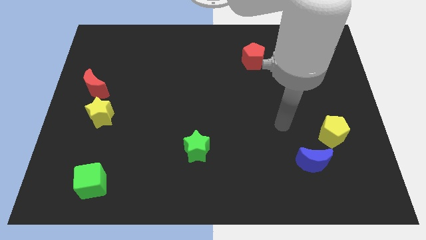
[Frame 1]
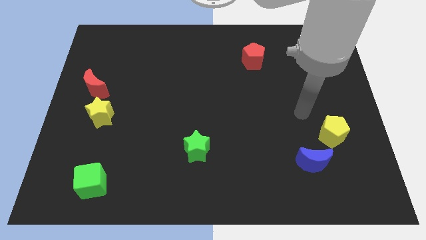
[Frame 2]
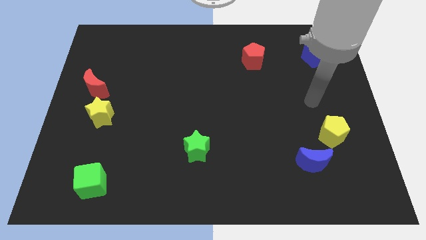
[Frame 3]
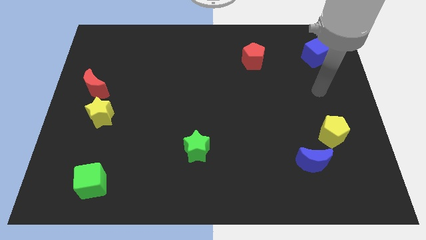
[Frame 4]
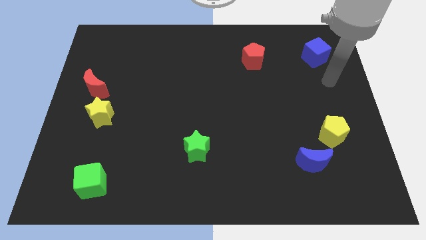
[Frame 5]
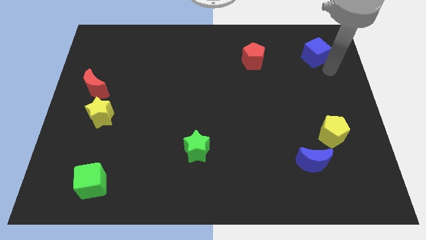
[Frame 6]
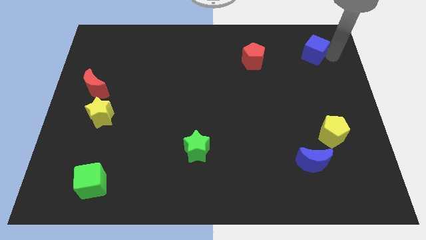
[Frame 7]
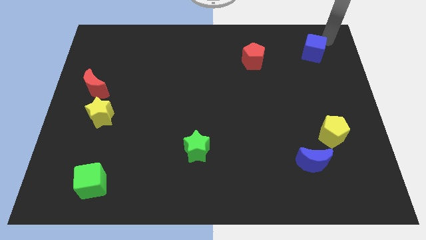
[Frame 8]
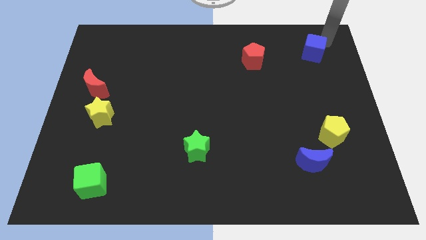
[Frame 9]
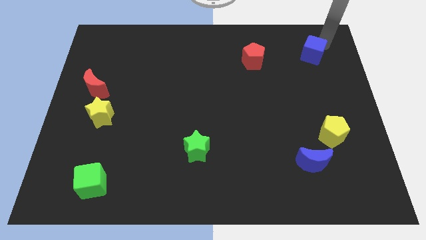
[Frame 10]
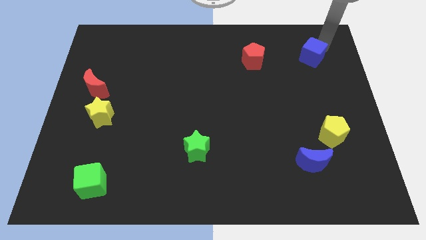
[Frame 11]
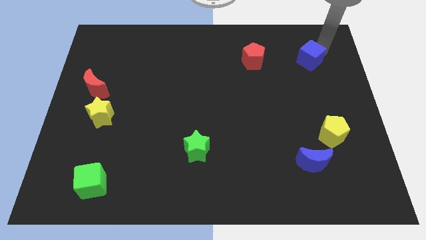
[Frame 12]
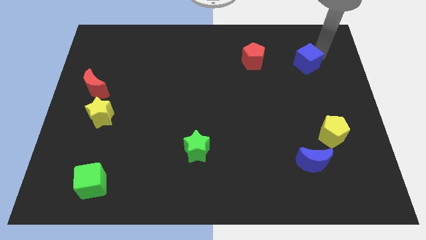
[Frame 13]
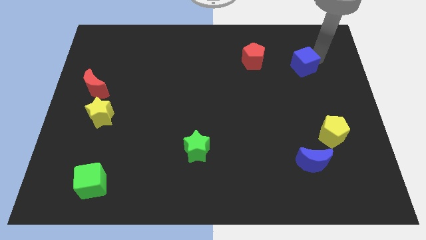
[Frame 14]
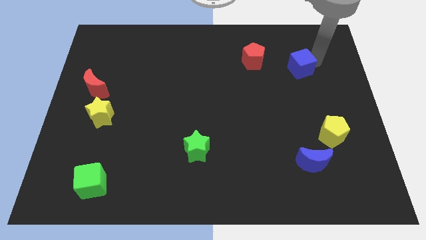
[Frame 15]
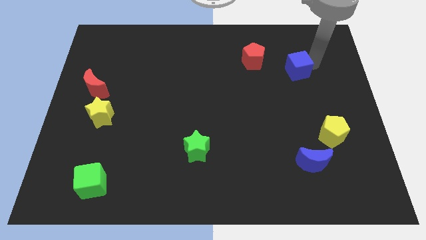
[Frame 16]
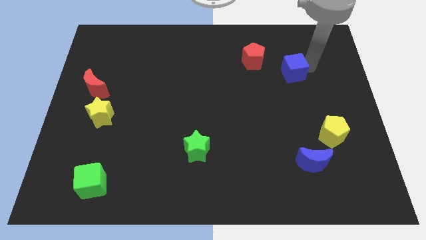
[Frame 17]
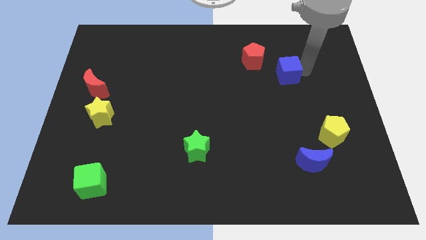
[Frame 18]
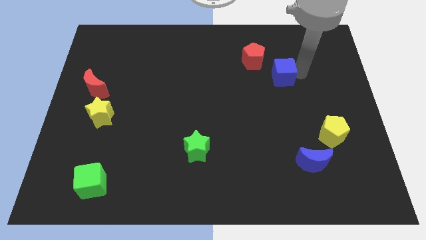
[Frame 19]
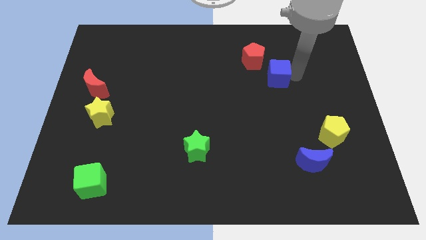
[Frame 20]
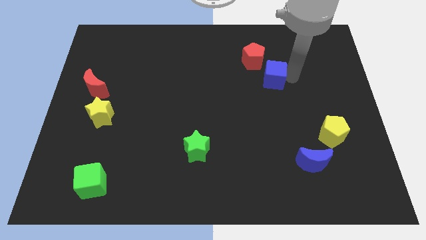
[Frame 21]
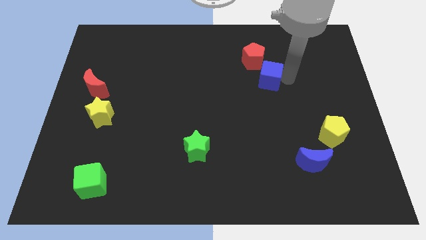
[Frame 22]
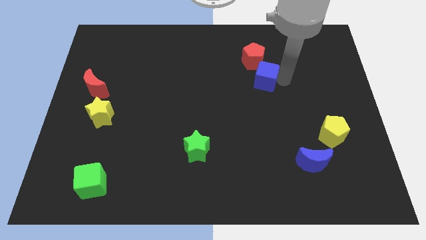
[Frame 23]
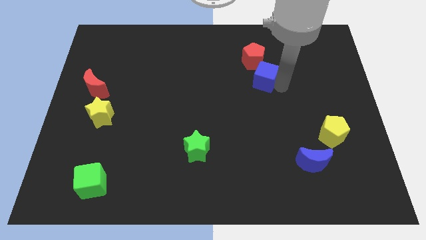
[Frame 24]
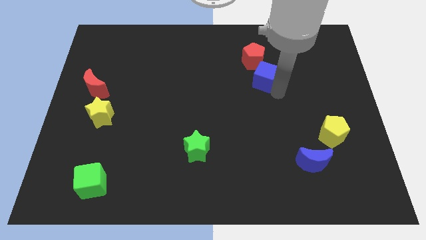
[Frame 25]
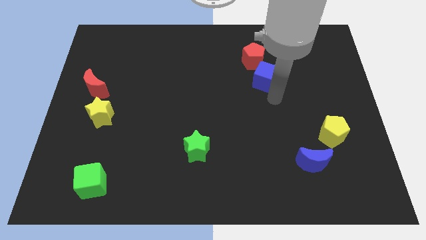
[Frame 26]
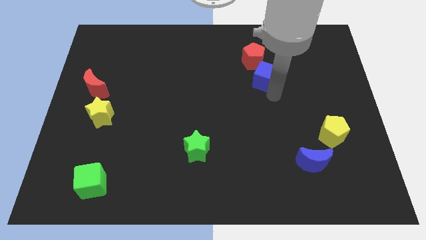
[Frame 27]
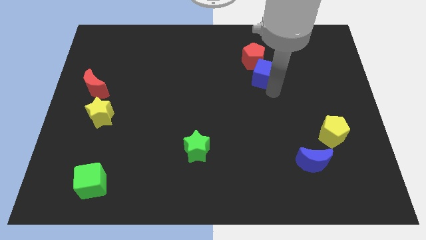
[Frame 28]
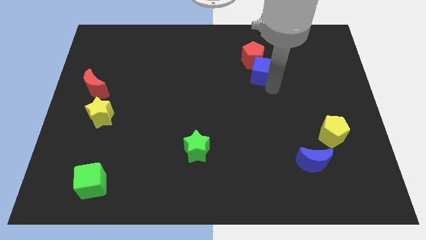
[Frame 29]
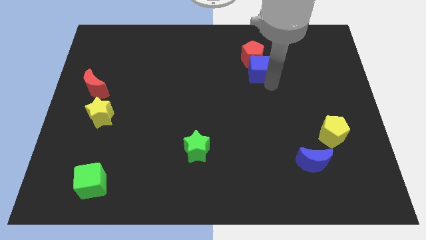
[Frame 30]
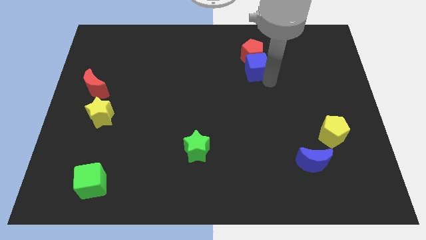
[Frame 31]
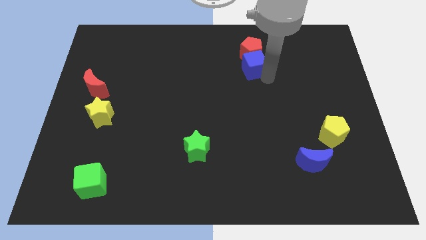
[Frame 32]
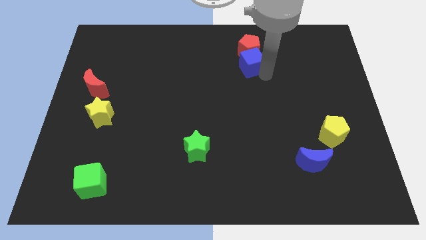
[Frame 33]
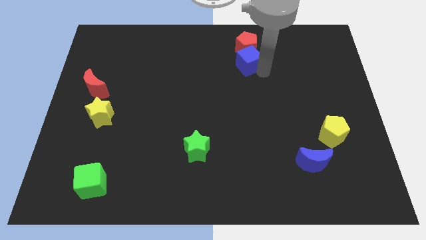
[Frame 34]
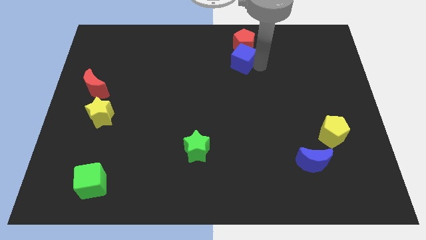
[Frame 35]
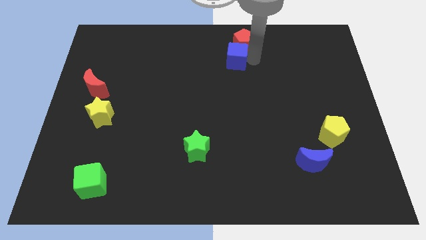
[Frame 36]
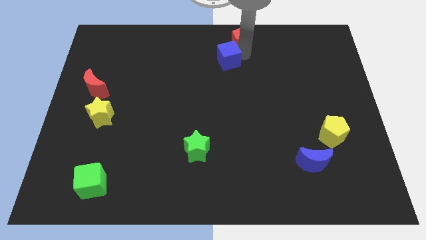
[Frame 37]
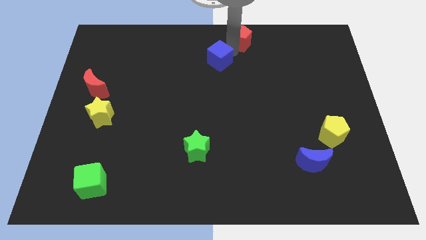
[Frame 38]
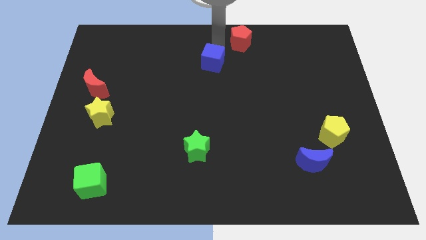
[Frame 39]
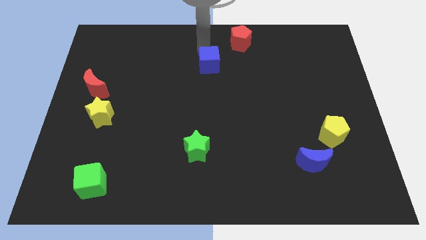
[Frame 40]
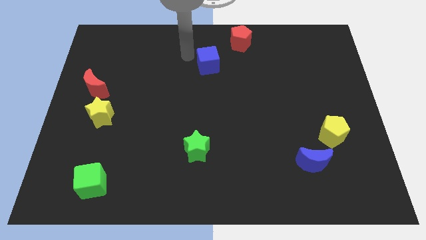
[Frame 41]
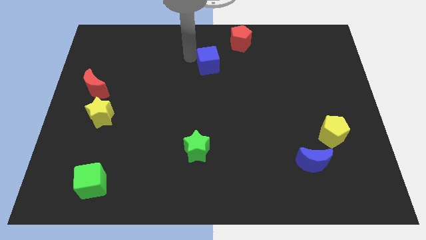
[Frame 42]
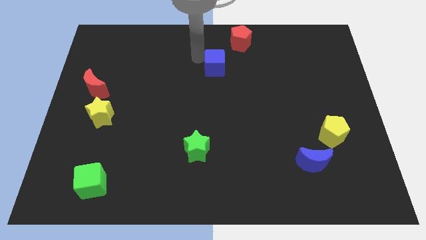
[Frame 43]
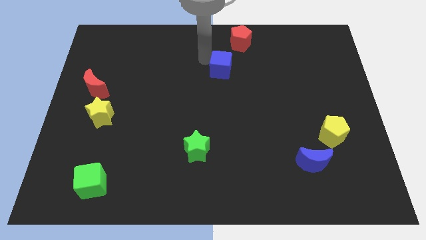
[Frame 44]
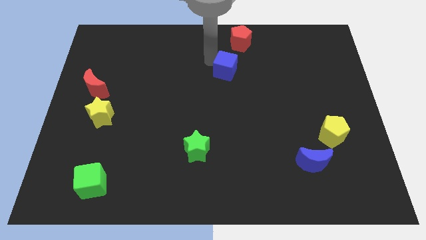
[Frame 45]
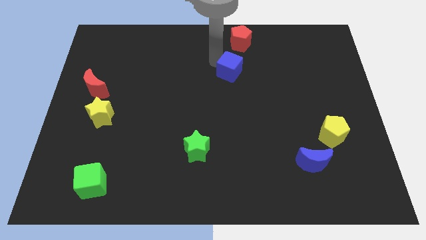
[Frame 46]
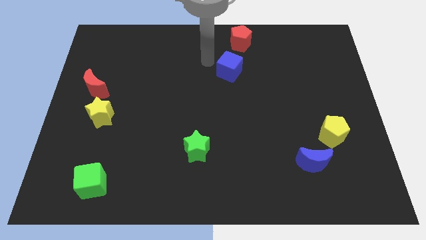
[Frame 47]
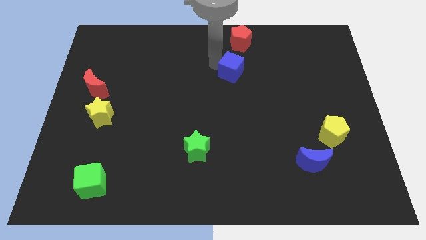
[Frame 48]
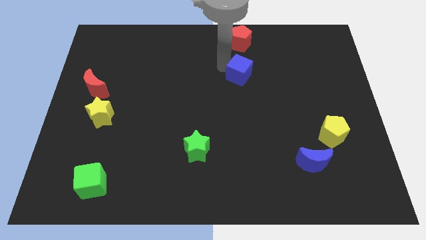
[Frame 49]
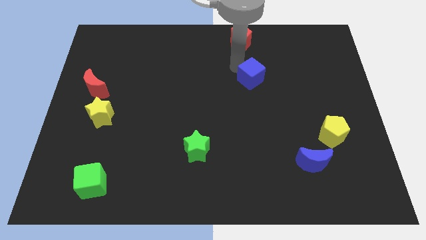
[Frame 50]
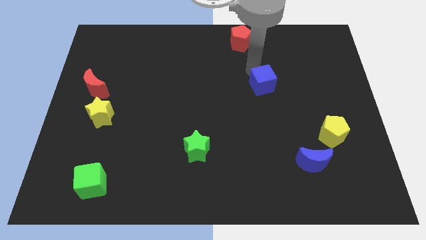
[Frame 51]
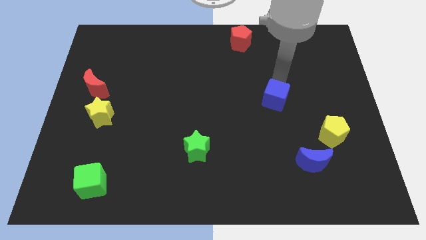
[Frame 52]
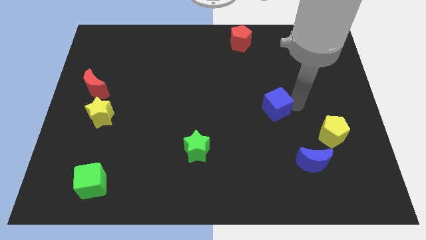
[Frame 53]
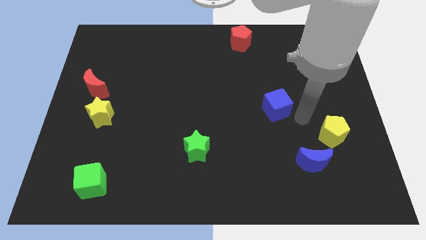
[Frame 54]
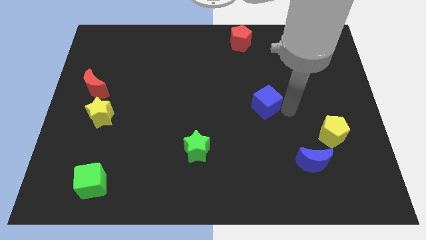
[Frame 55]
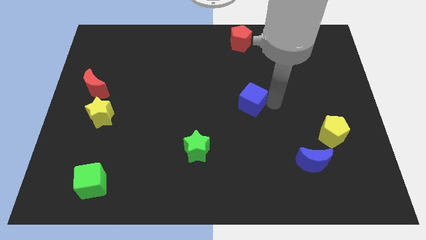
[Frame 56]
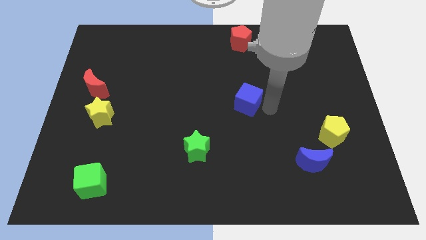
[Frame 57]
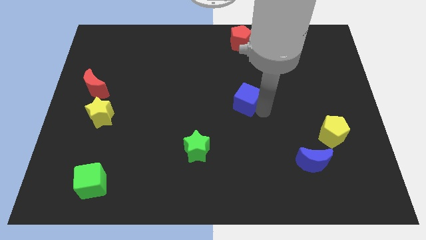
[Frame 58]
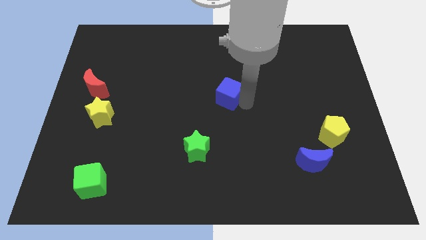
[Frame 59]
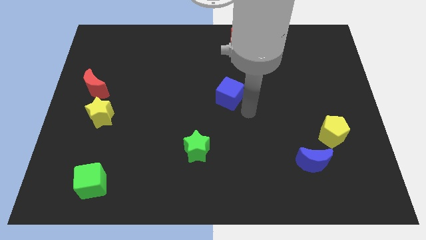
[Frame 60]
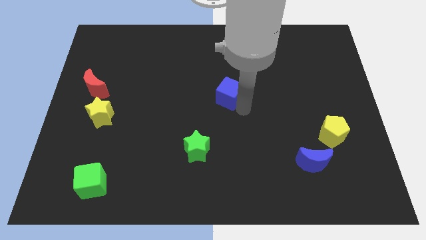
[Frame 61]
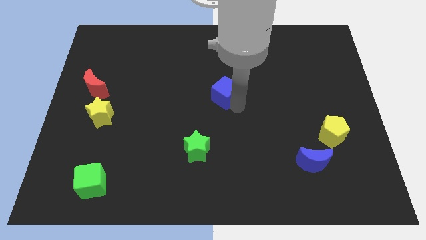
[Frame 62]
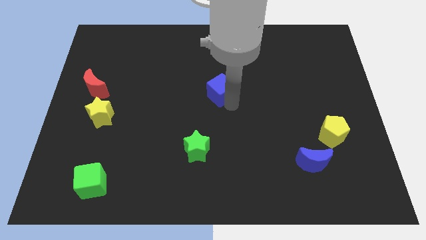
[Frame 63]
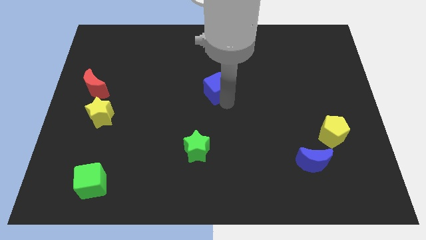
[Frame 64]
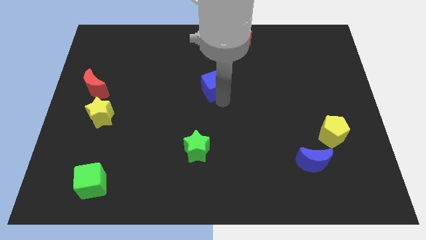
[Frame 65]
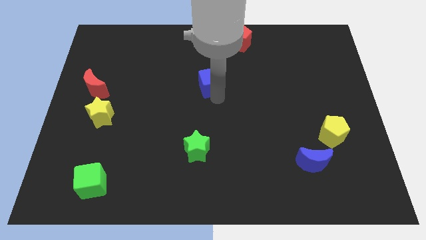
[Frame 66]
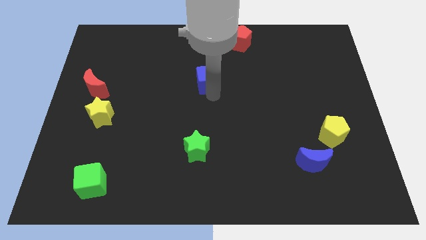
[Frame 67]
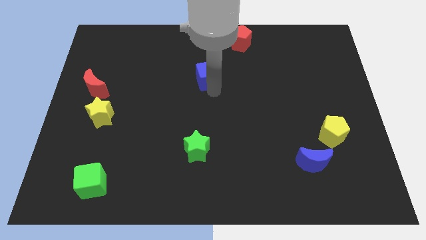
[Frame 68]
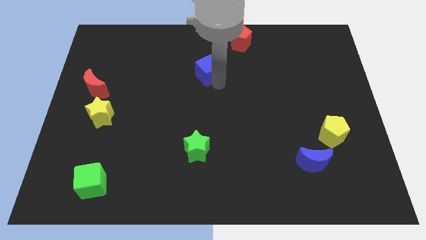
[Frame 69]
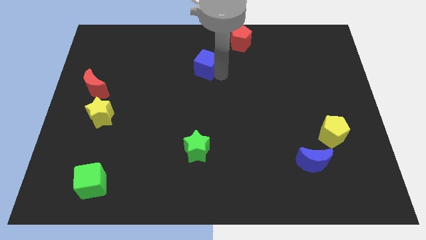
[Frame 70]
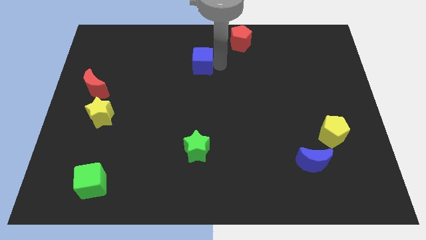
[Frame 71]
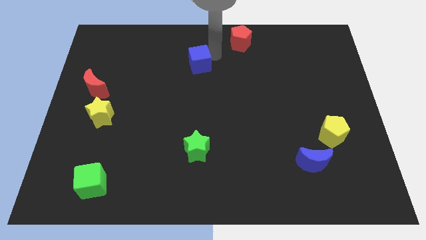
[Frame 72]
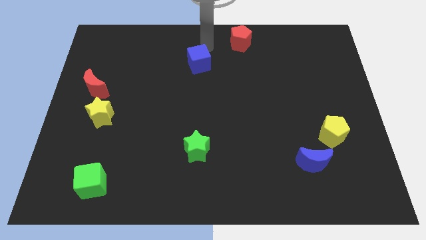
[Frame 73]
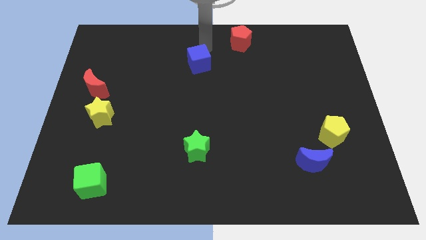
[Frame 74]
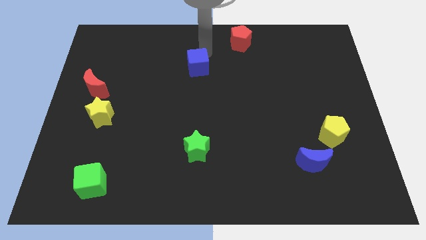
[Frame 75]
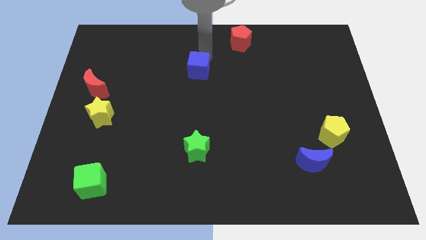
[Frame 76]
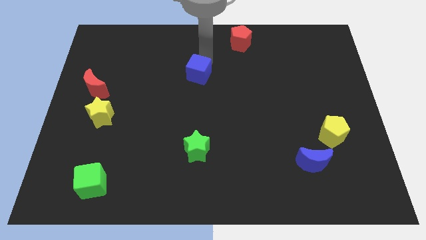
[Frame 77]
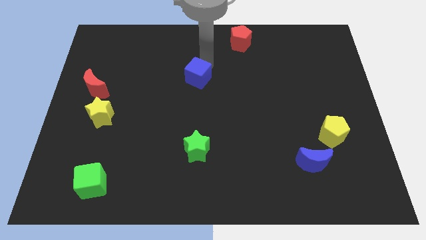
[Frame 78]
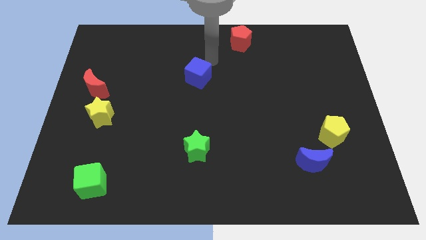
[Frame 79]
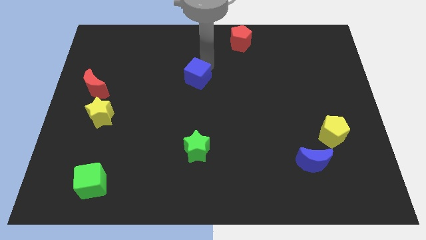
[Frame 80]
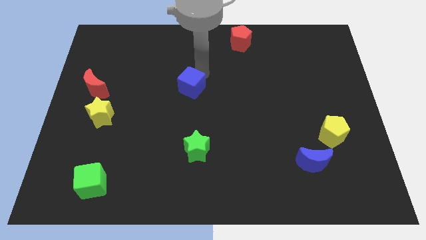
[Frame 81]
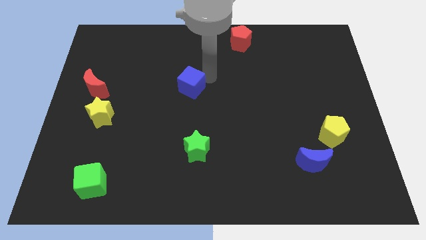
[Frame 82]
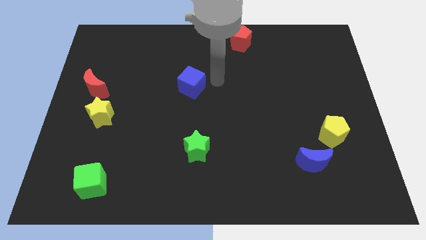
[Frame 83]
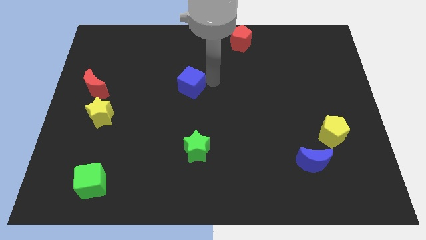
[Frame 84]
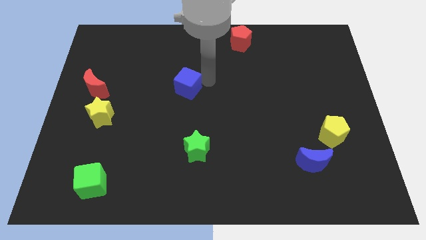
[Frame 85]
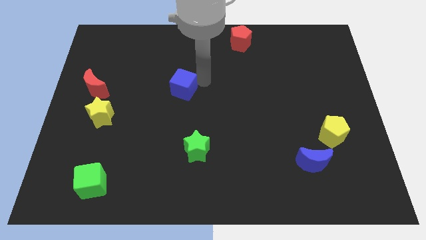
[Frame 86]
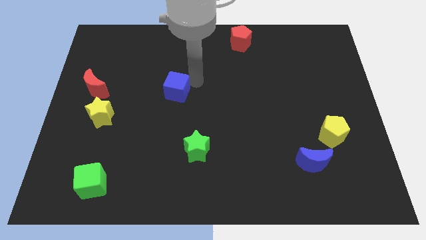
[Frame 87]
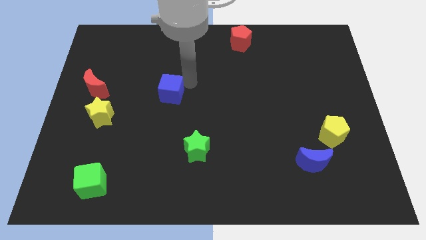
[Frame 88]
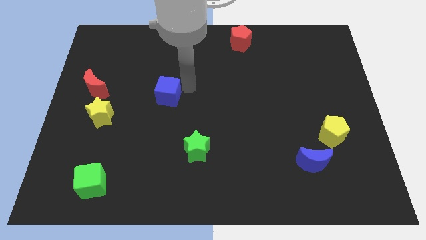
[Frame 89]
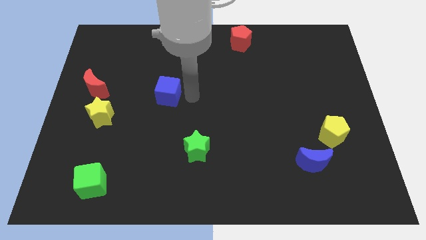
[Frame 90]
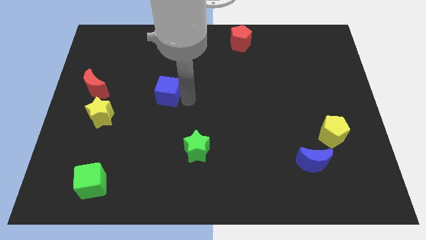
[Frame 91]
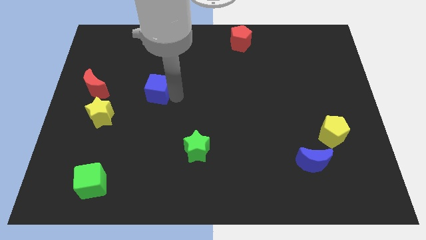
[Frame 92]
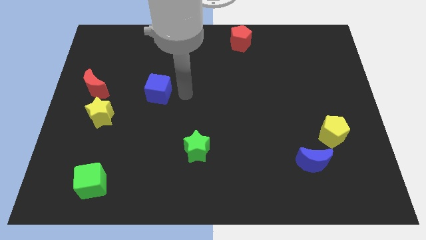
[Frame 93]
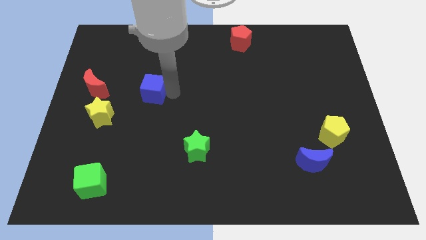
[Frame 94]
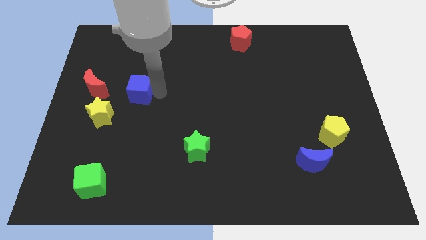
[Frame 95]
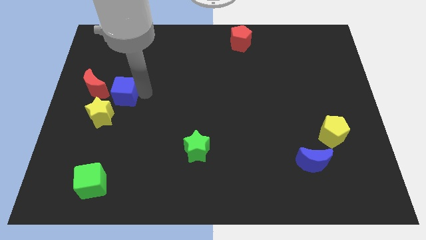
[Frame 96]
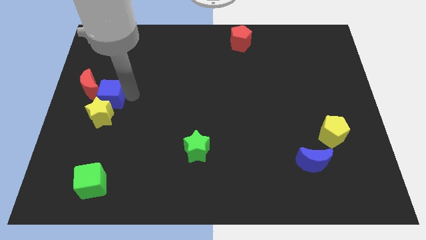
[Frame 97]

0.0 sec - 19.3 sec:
push the blue cube to the red moon
